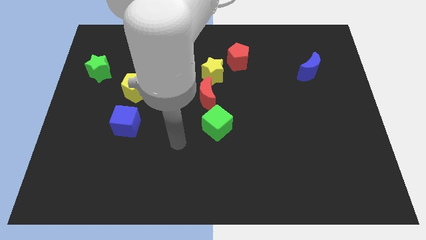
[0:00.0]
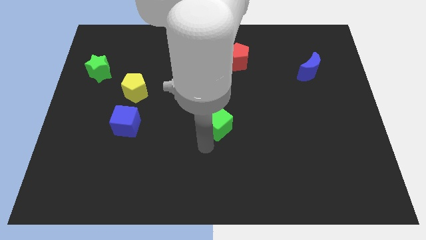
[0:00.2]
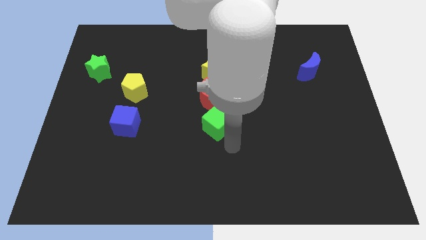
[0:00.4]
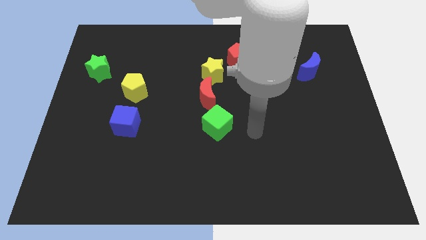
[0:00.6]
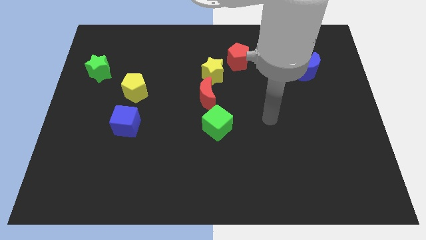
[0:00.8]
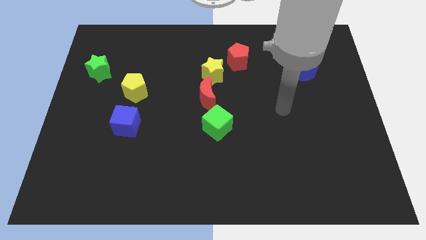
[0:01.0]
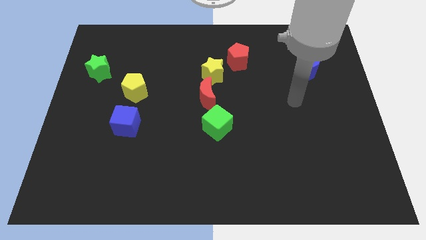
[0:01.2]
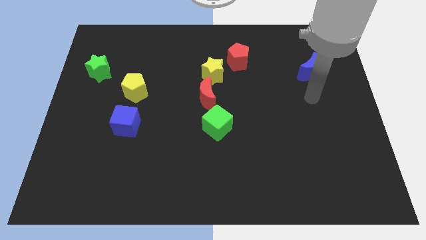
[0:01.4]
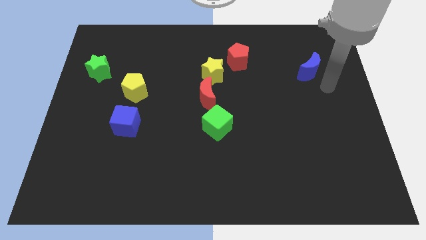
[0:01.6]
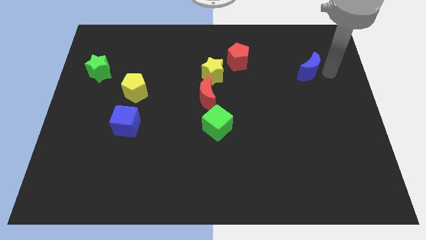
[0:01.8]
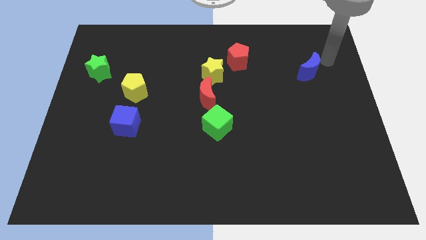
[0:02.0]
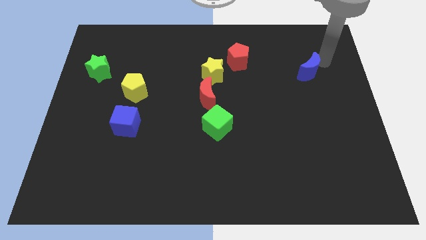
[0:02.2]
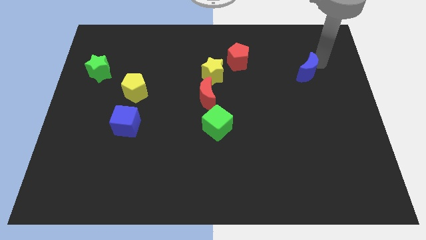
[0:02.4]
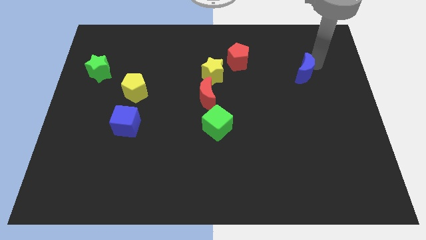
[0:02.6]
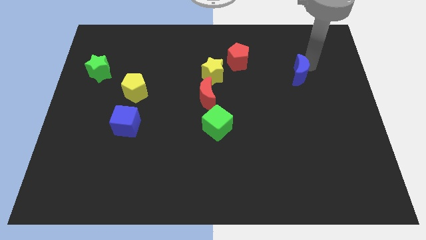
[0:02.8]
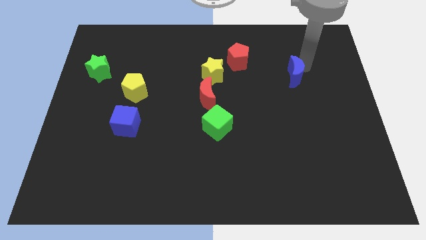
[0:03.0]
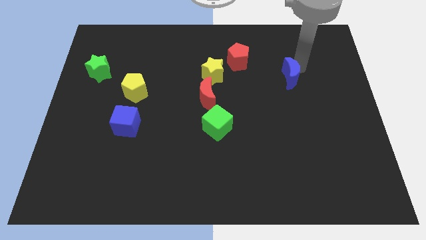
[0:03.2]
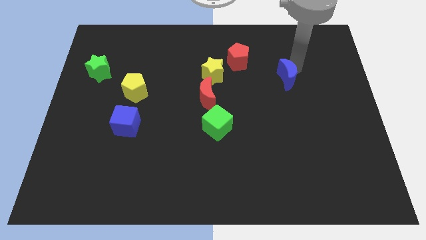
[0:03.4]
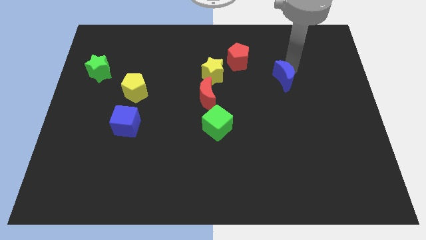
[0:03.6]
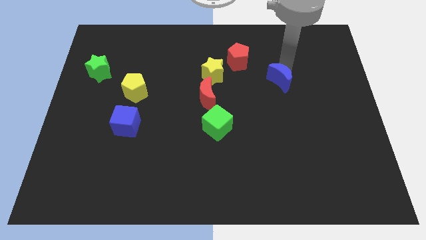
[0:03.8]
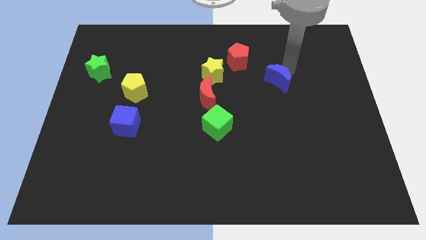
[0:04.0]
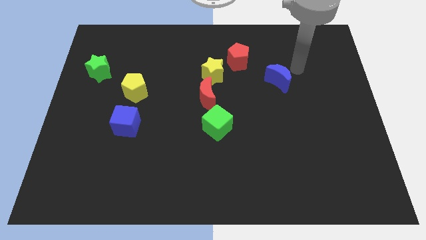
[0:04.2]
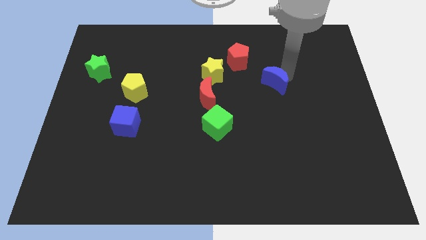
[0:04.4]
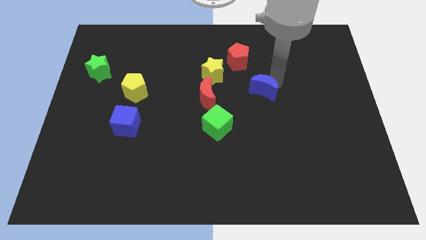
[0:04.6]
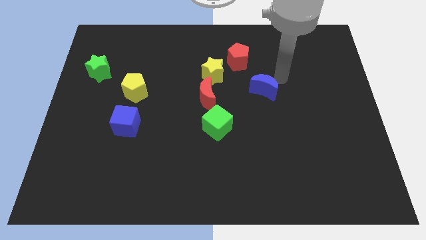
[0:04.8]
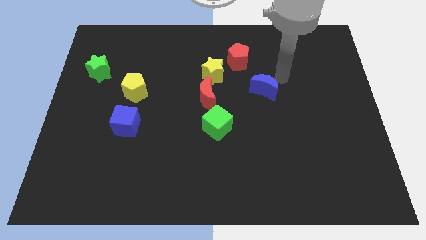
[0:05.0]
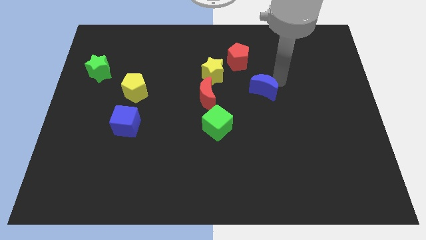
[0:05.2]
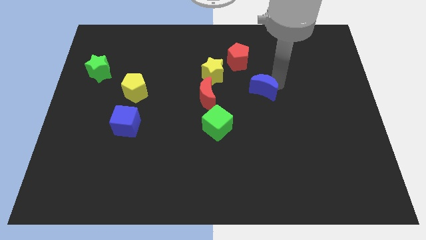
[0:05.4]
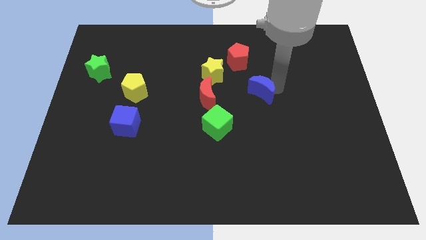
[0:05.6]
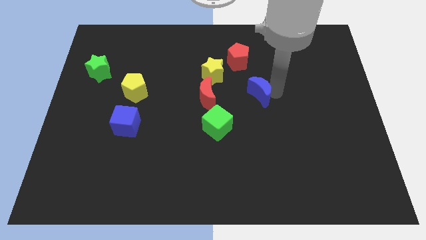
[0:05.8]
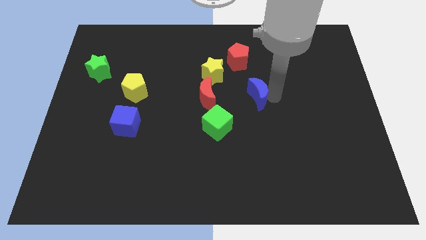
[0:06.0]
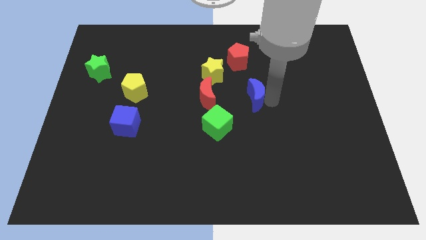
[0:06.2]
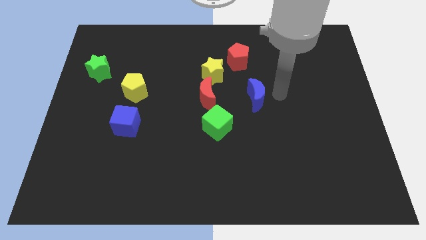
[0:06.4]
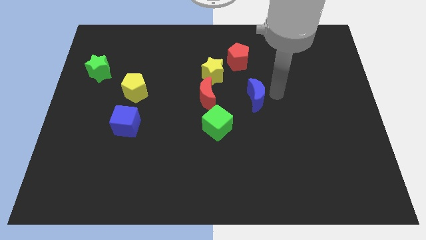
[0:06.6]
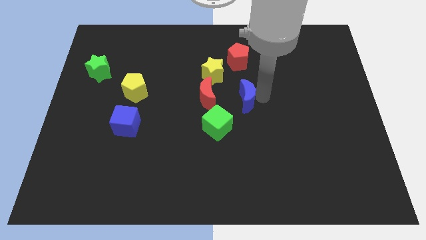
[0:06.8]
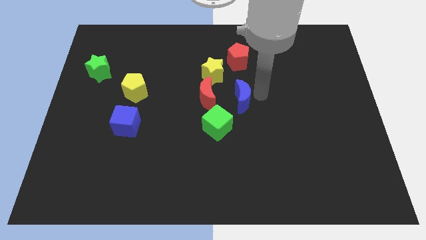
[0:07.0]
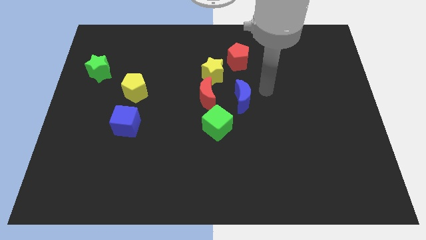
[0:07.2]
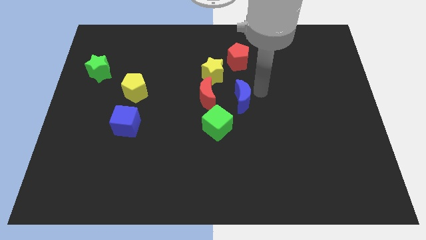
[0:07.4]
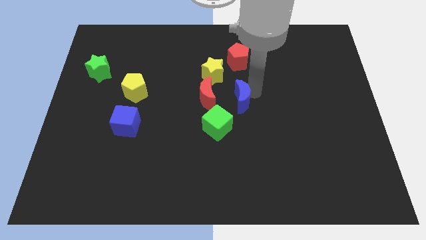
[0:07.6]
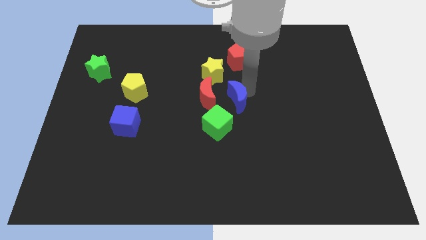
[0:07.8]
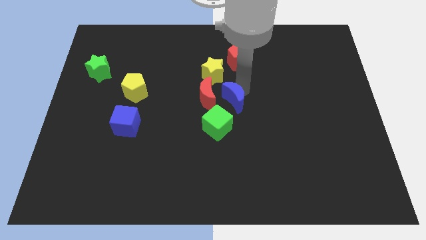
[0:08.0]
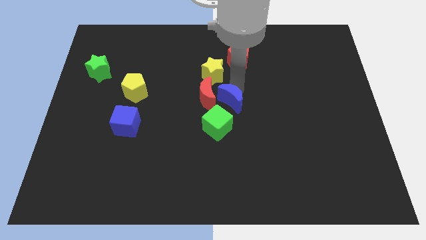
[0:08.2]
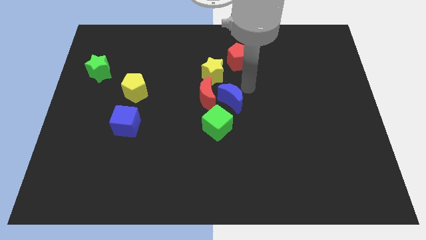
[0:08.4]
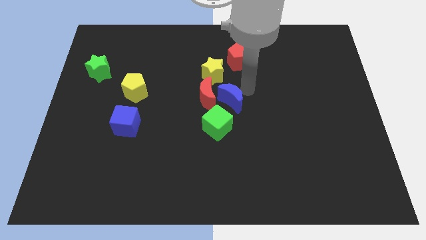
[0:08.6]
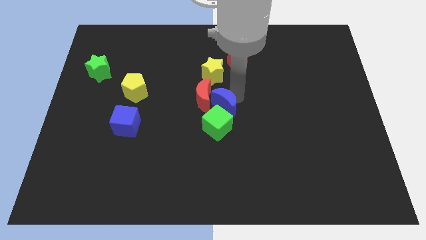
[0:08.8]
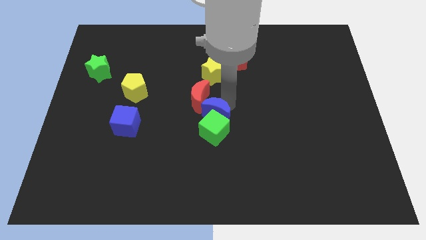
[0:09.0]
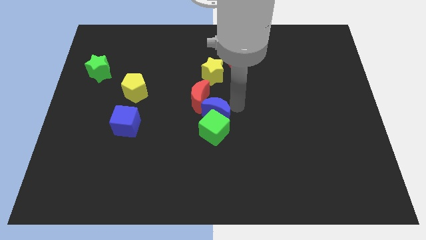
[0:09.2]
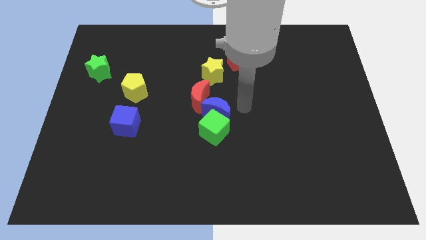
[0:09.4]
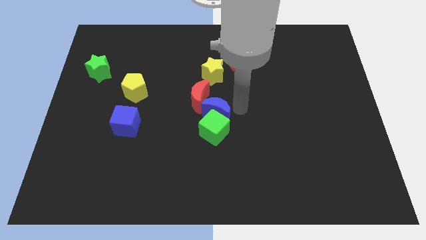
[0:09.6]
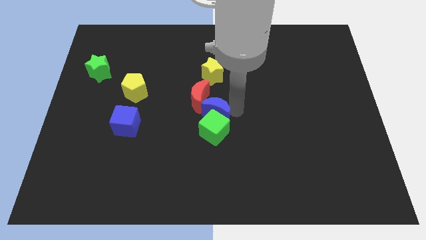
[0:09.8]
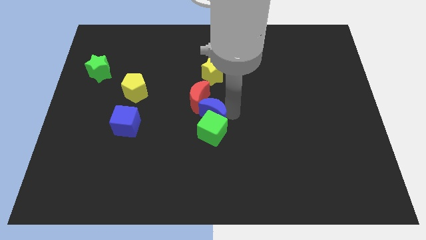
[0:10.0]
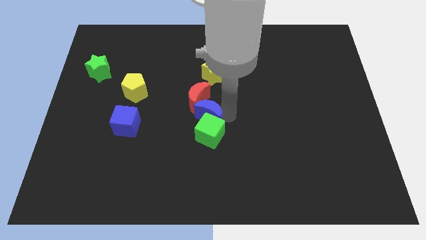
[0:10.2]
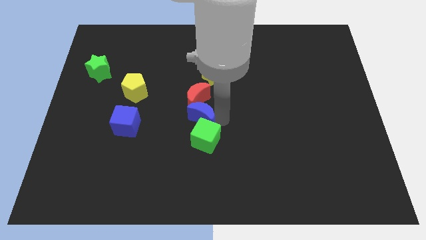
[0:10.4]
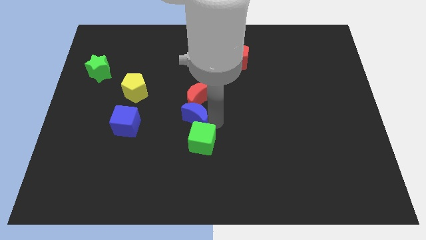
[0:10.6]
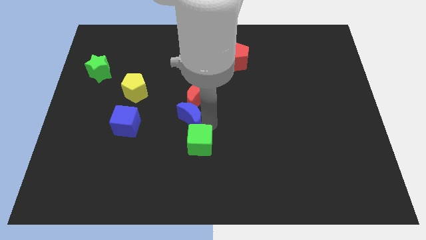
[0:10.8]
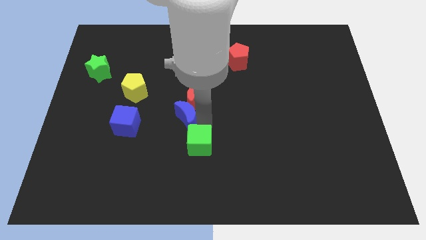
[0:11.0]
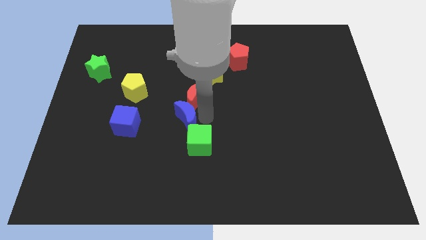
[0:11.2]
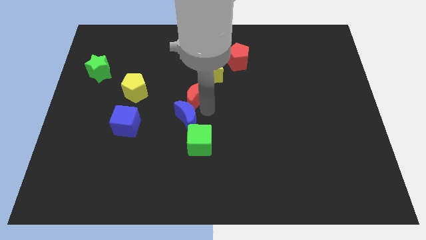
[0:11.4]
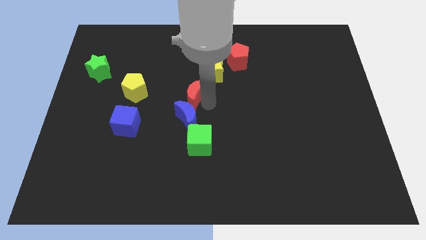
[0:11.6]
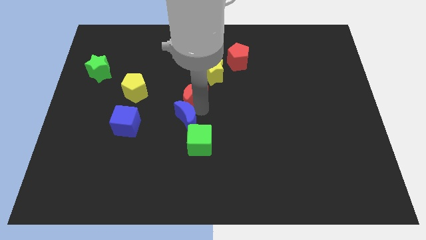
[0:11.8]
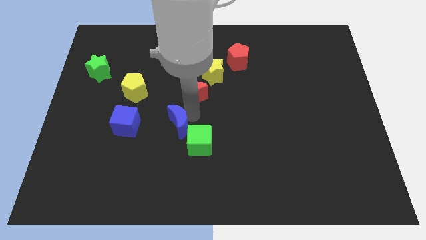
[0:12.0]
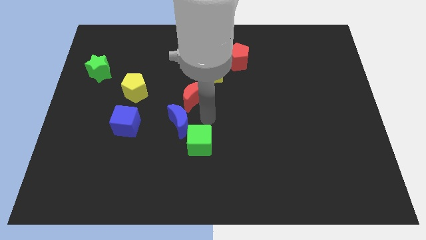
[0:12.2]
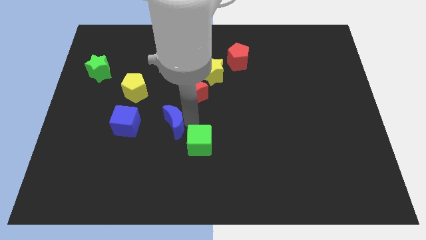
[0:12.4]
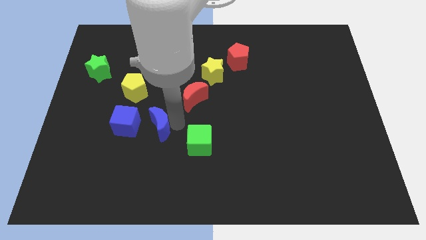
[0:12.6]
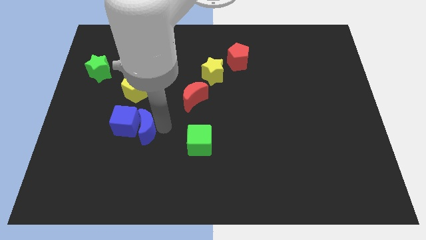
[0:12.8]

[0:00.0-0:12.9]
push the blue moon next to the blue cube
